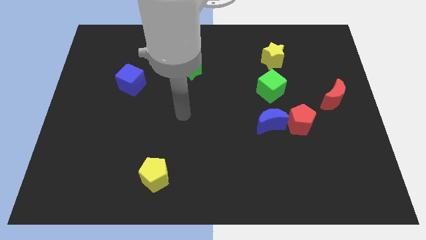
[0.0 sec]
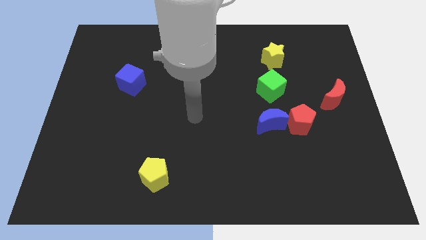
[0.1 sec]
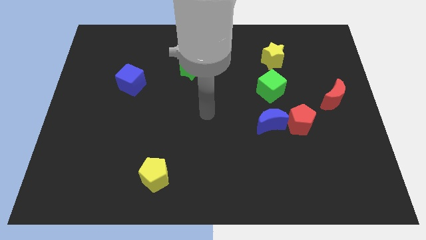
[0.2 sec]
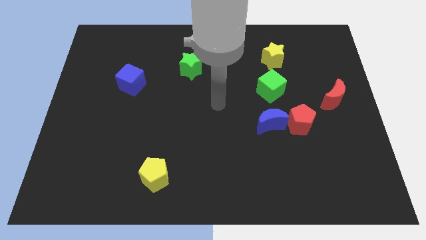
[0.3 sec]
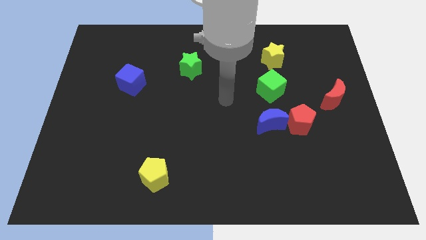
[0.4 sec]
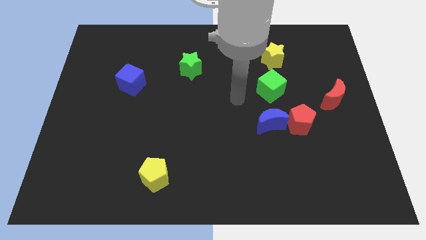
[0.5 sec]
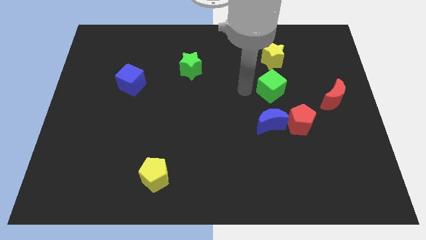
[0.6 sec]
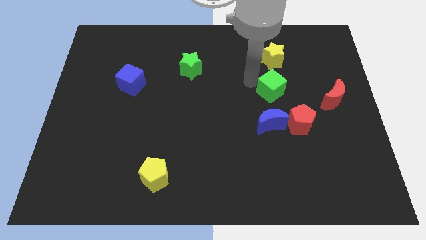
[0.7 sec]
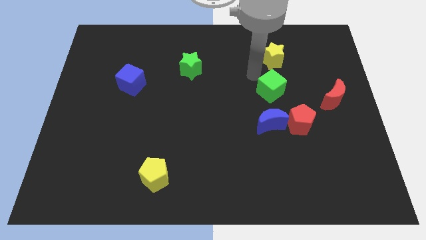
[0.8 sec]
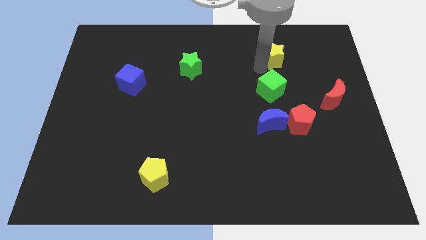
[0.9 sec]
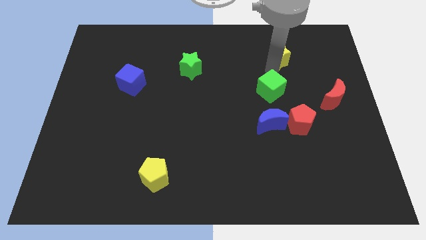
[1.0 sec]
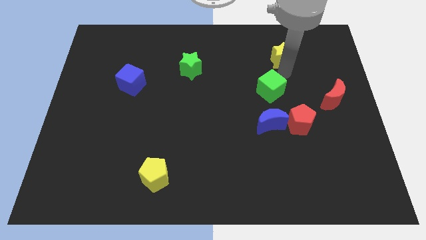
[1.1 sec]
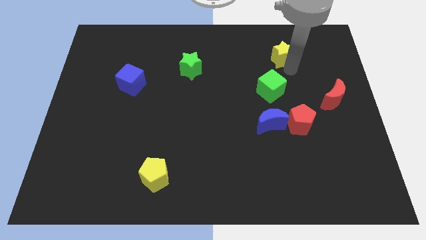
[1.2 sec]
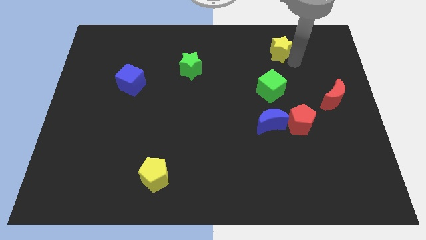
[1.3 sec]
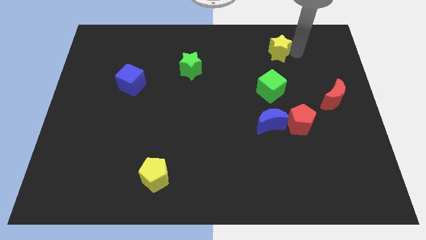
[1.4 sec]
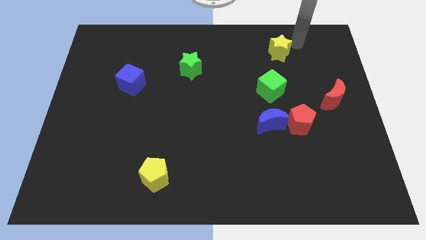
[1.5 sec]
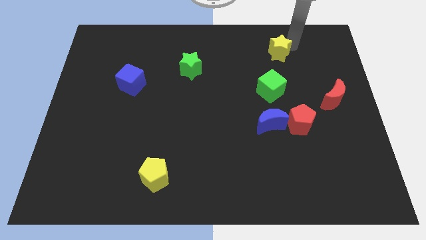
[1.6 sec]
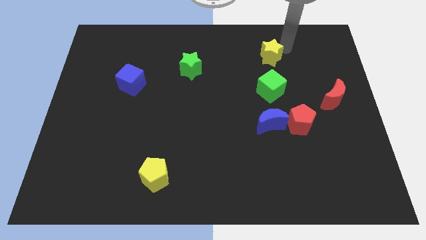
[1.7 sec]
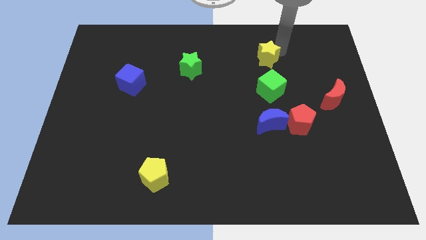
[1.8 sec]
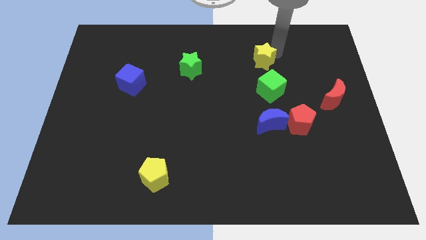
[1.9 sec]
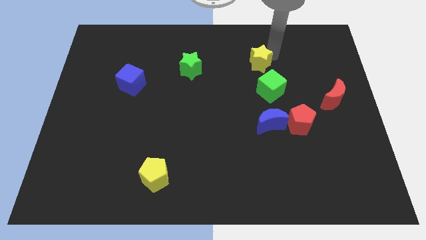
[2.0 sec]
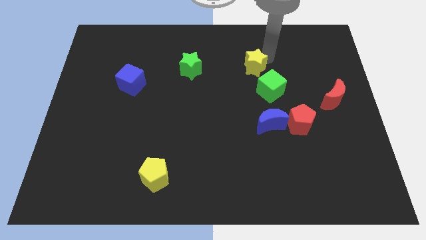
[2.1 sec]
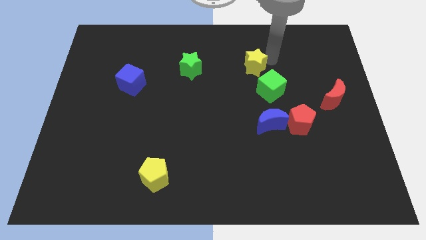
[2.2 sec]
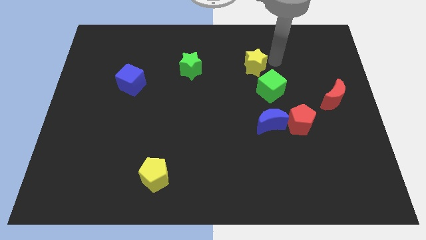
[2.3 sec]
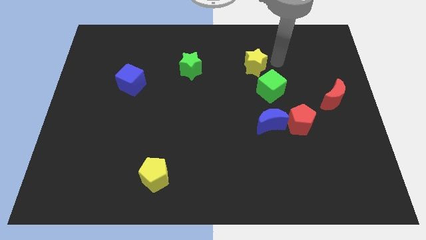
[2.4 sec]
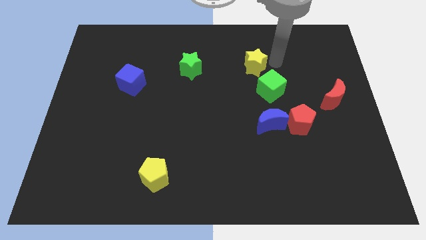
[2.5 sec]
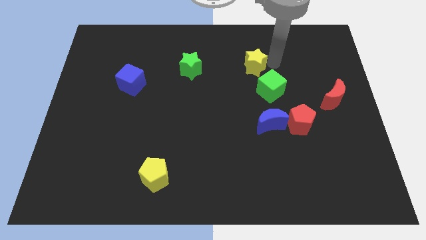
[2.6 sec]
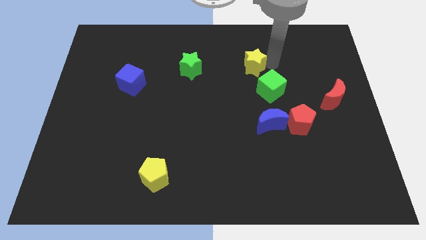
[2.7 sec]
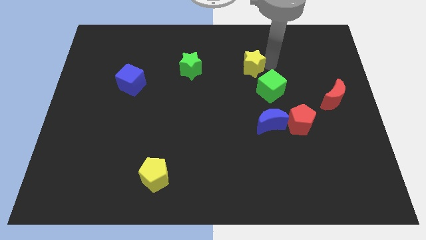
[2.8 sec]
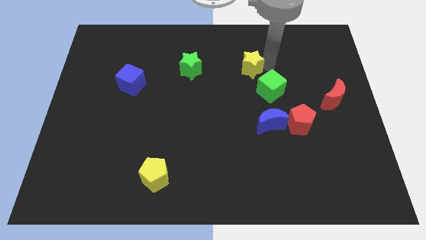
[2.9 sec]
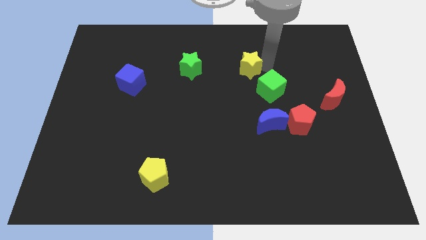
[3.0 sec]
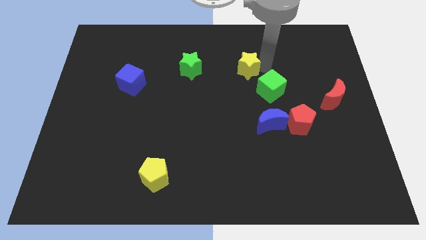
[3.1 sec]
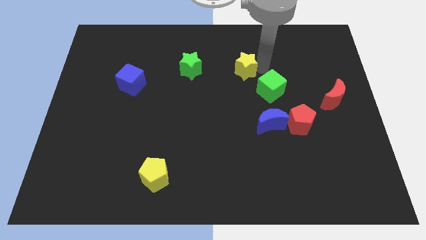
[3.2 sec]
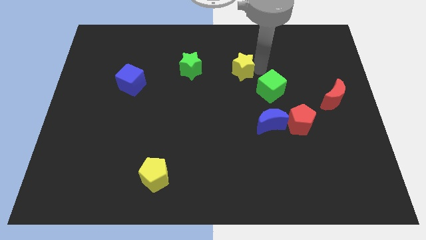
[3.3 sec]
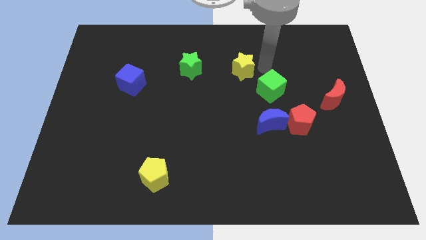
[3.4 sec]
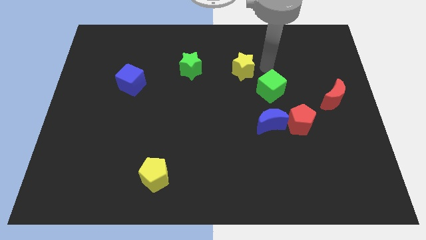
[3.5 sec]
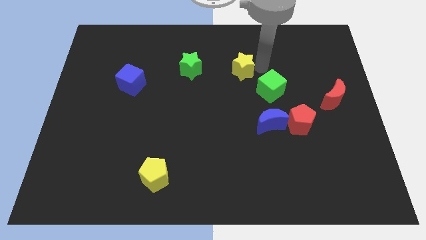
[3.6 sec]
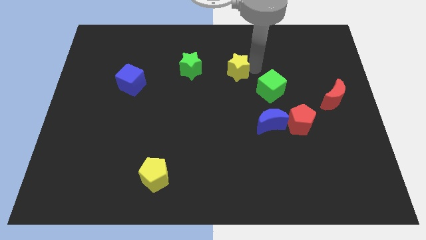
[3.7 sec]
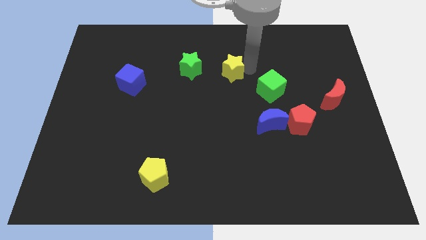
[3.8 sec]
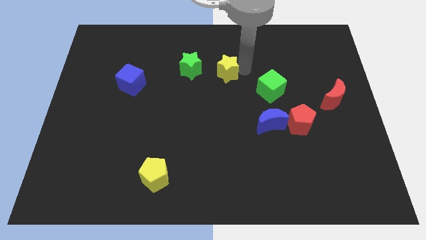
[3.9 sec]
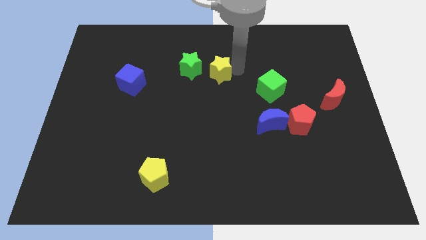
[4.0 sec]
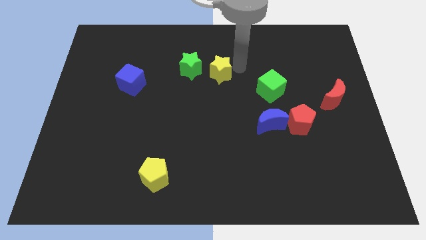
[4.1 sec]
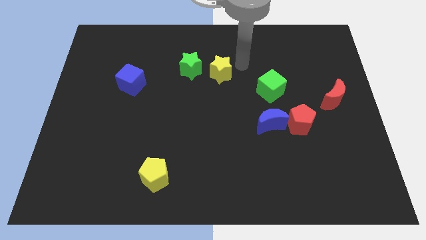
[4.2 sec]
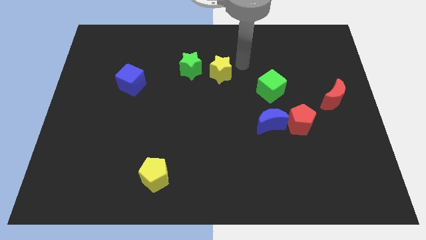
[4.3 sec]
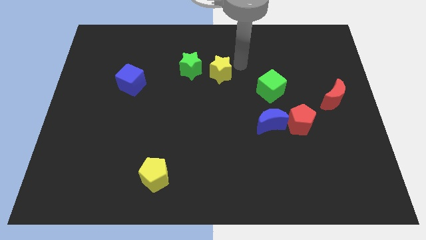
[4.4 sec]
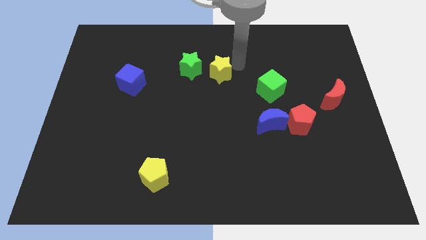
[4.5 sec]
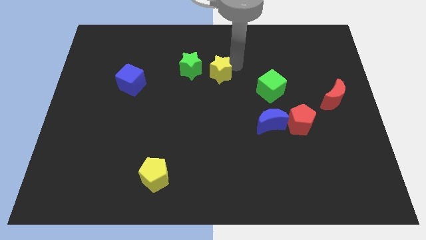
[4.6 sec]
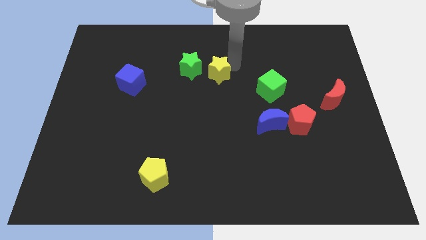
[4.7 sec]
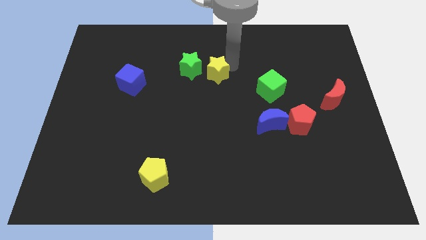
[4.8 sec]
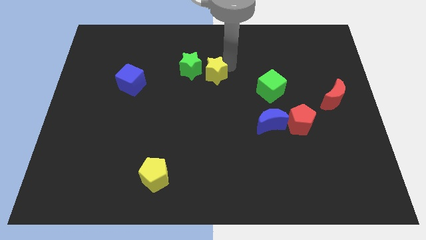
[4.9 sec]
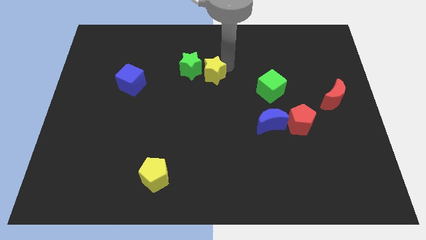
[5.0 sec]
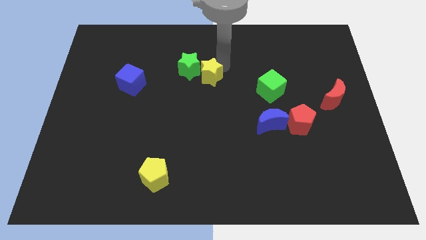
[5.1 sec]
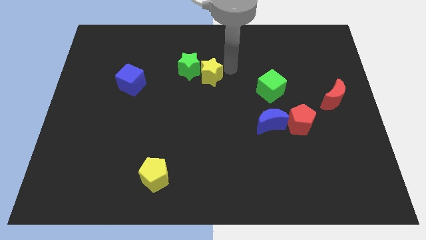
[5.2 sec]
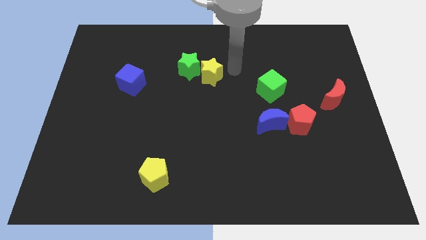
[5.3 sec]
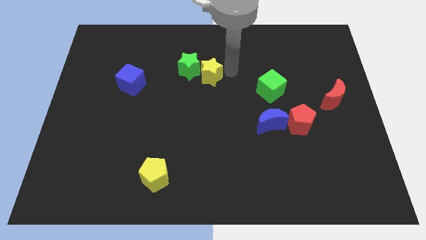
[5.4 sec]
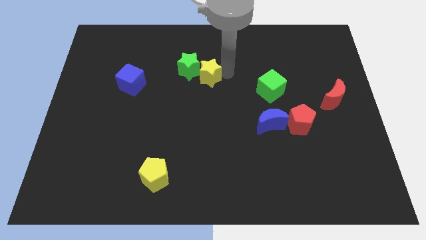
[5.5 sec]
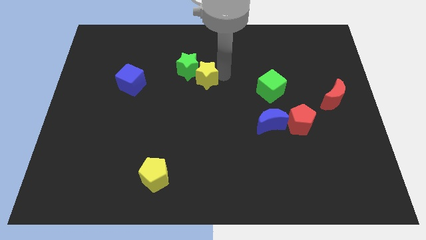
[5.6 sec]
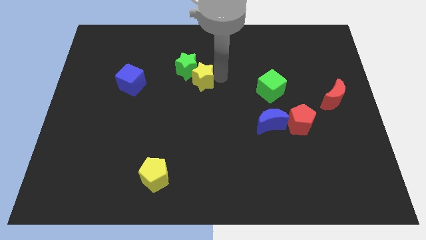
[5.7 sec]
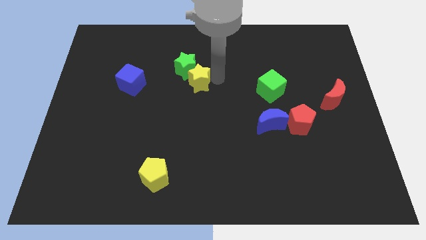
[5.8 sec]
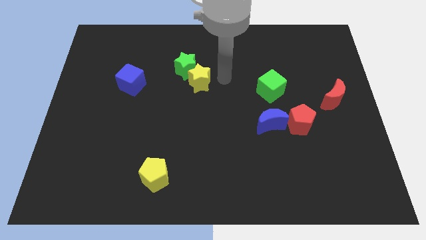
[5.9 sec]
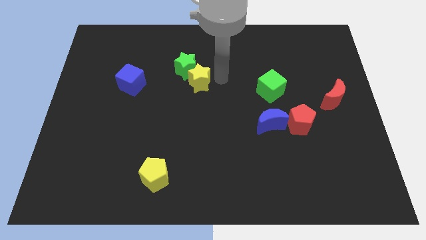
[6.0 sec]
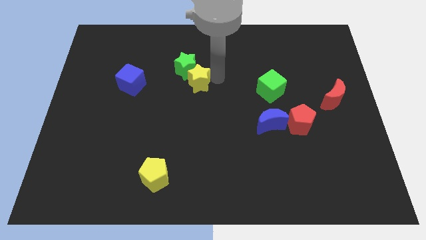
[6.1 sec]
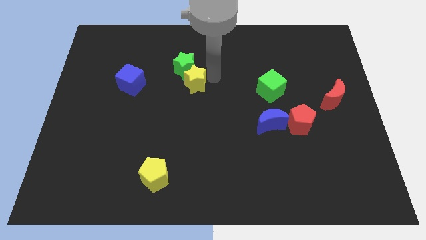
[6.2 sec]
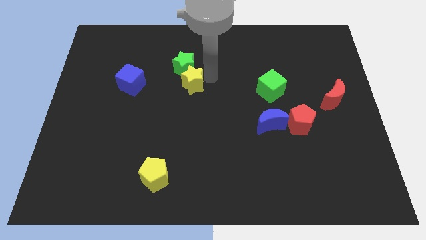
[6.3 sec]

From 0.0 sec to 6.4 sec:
slide the yellow star diagonally down and to the left of the green star

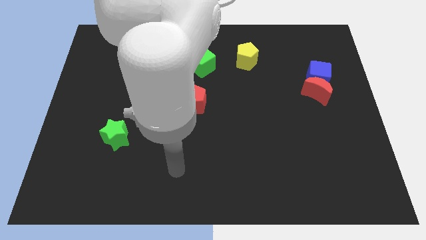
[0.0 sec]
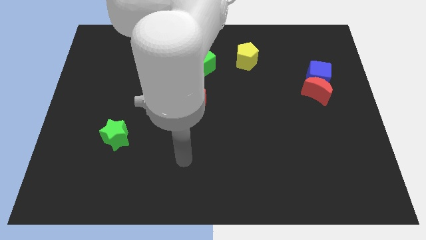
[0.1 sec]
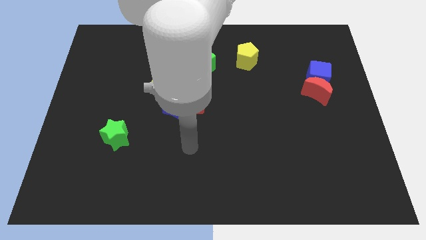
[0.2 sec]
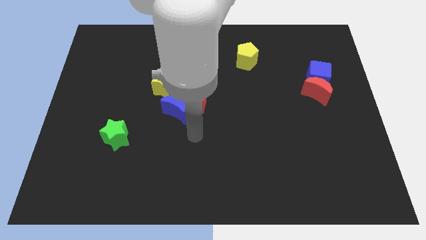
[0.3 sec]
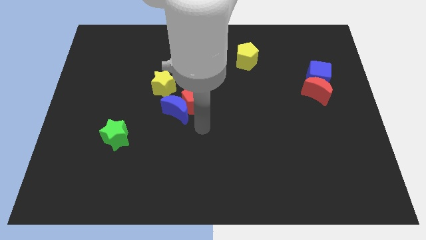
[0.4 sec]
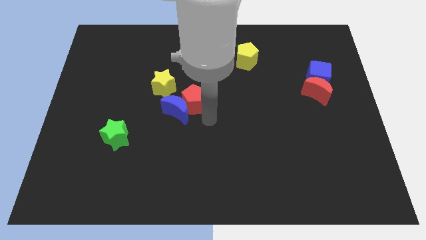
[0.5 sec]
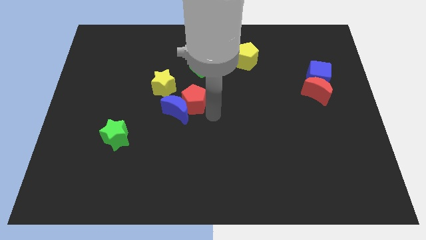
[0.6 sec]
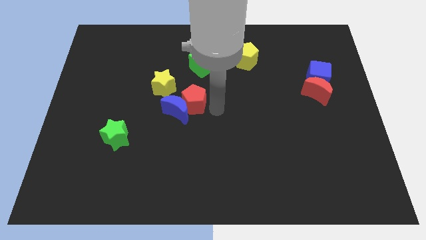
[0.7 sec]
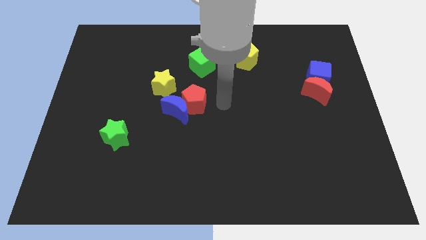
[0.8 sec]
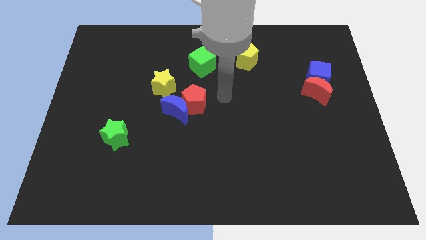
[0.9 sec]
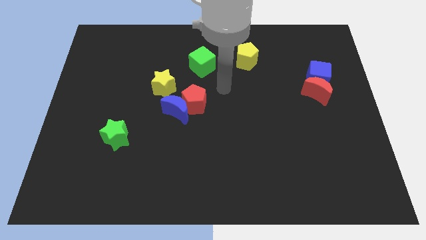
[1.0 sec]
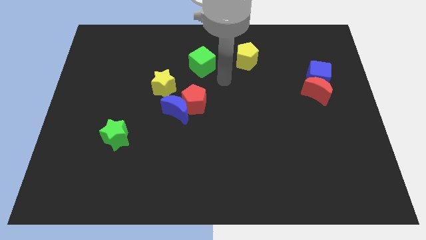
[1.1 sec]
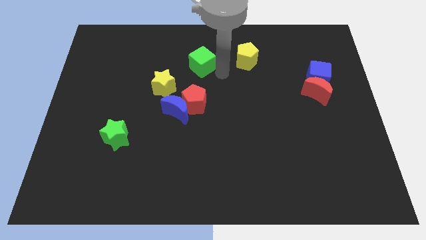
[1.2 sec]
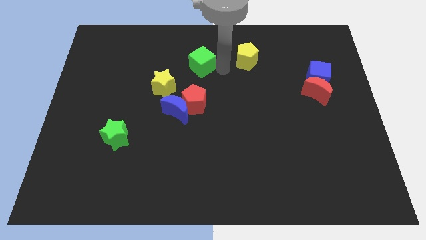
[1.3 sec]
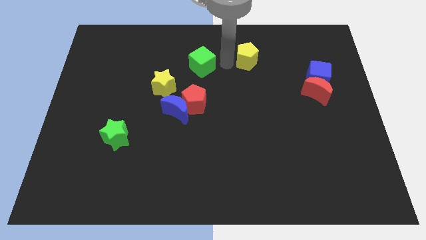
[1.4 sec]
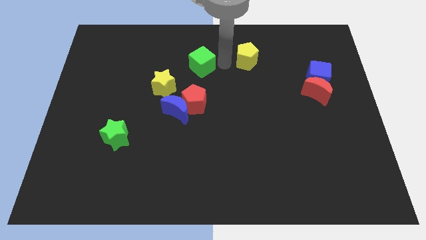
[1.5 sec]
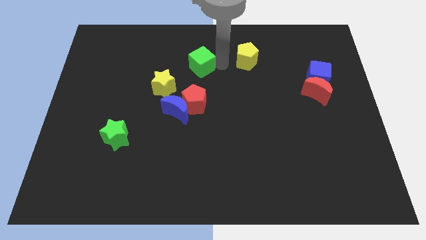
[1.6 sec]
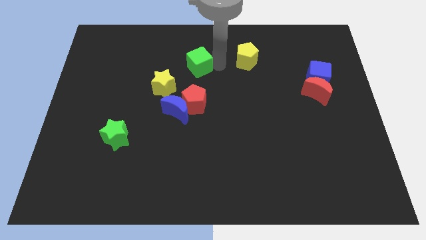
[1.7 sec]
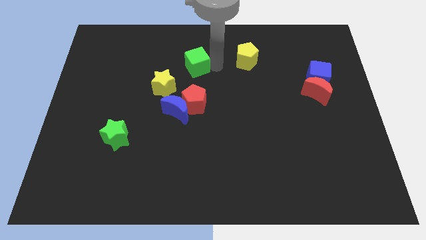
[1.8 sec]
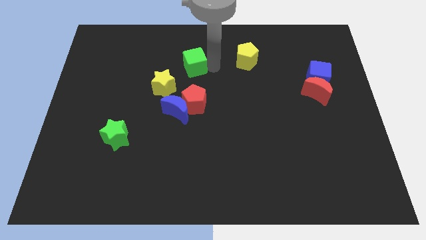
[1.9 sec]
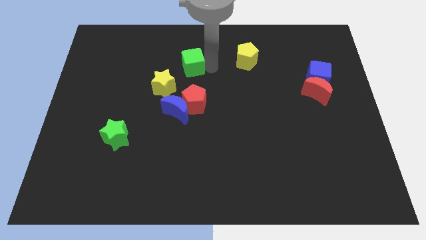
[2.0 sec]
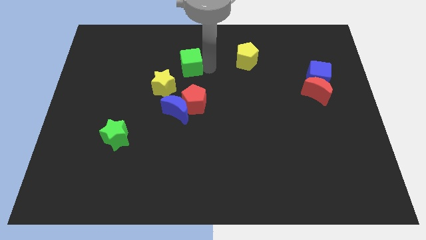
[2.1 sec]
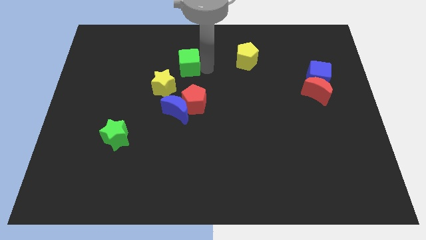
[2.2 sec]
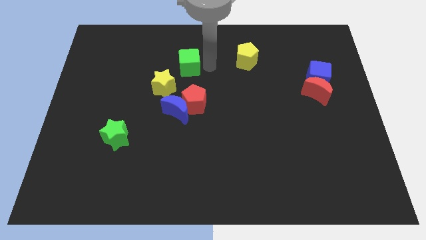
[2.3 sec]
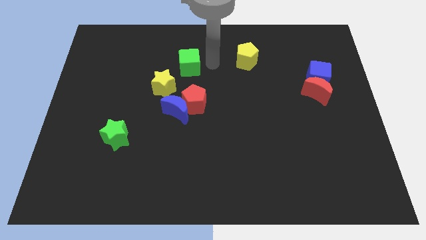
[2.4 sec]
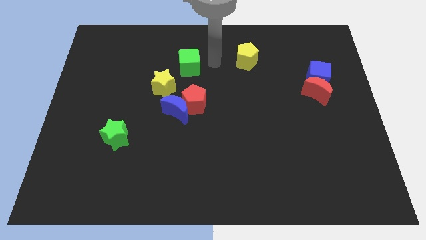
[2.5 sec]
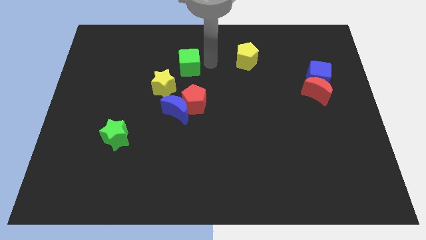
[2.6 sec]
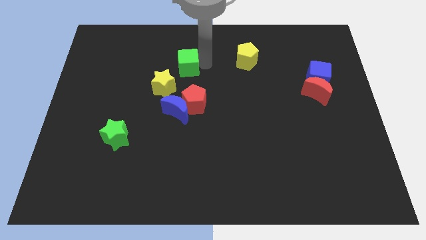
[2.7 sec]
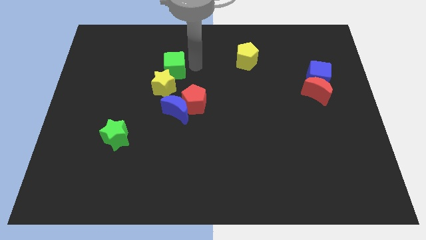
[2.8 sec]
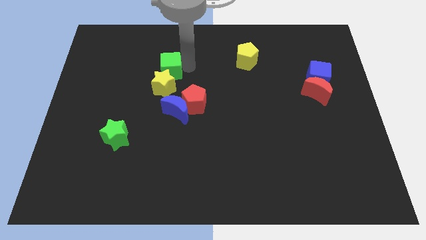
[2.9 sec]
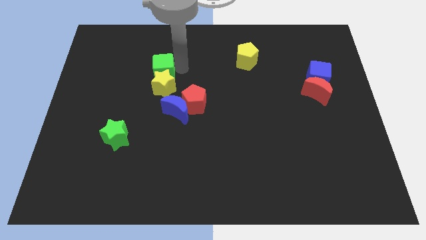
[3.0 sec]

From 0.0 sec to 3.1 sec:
slide the green cube diagonally up and to the left of the yellow star
